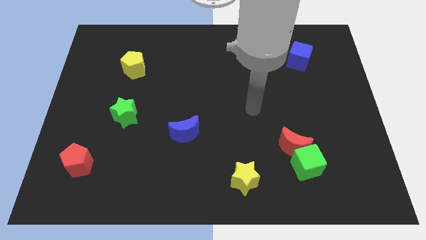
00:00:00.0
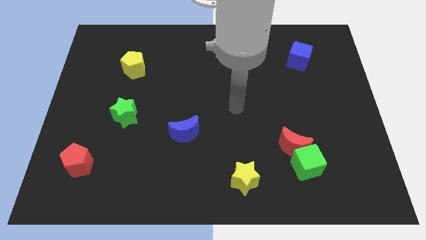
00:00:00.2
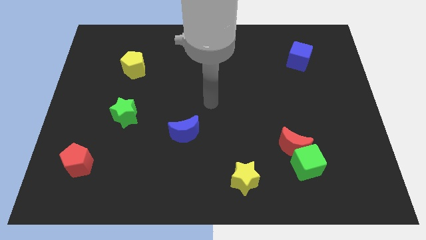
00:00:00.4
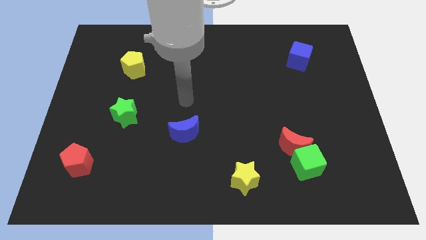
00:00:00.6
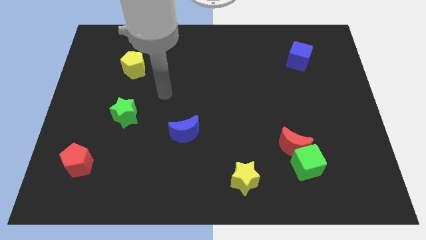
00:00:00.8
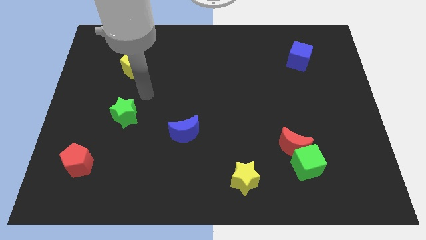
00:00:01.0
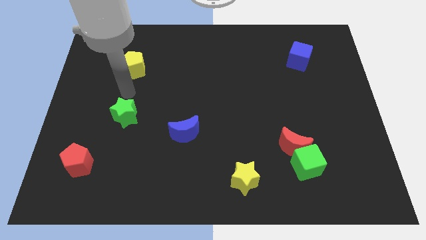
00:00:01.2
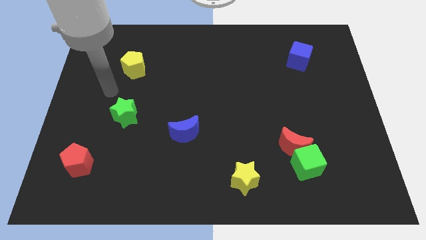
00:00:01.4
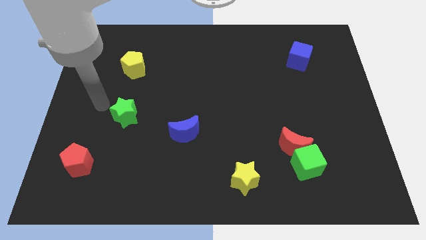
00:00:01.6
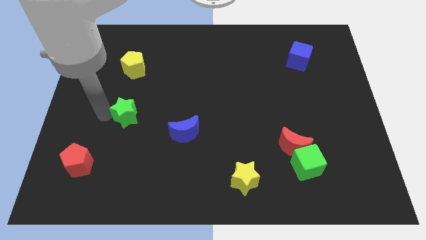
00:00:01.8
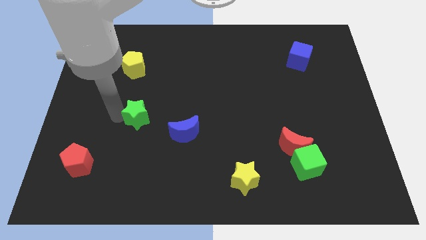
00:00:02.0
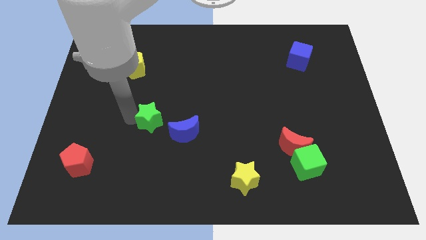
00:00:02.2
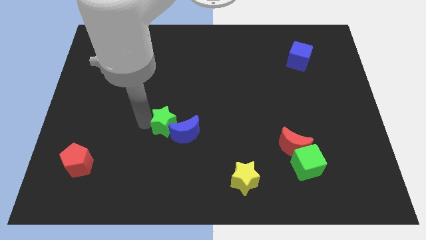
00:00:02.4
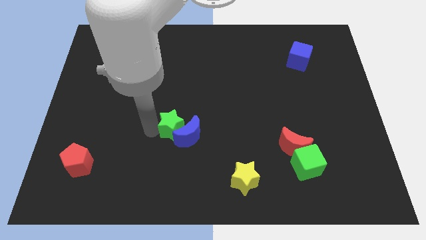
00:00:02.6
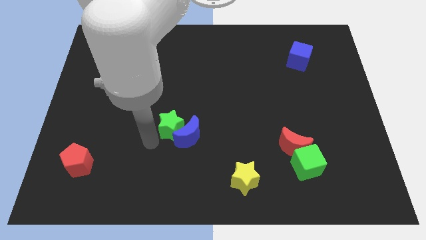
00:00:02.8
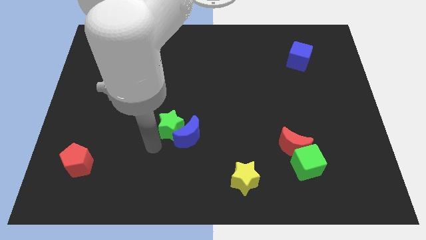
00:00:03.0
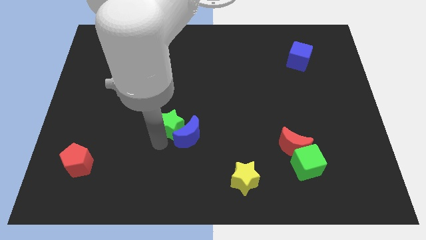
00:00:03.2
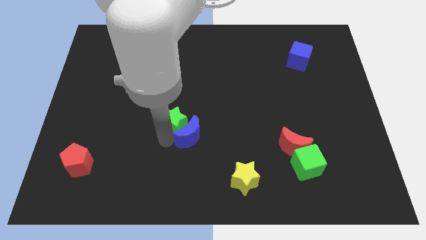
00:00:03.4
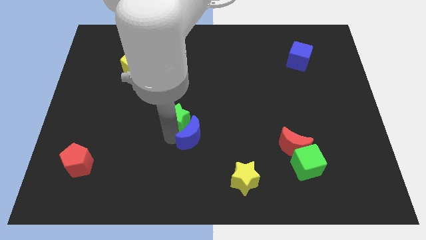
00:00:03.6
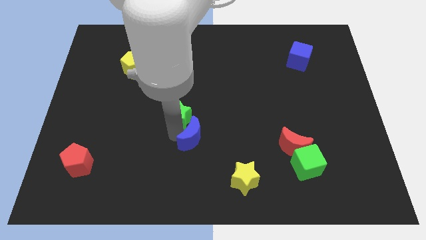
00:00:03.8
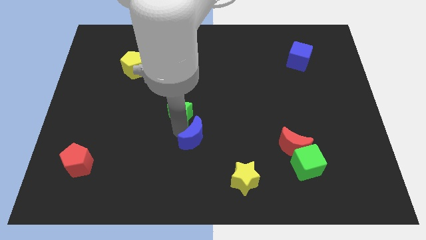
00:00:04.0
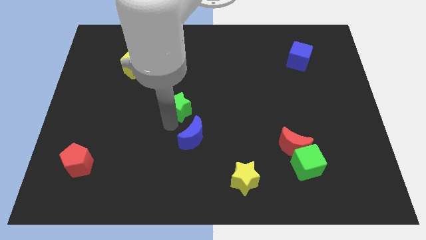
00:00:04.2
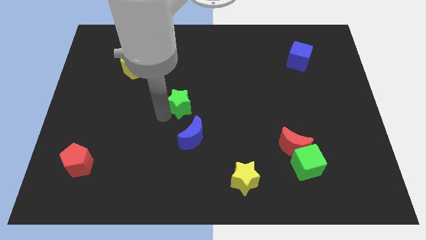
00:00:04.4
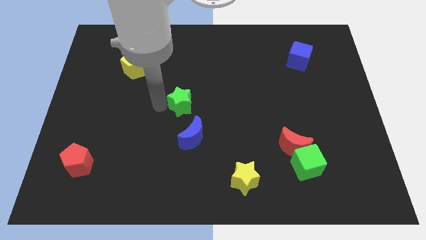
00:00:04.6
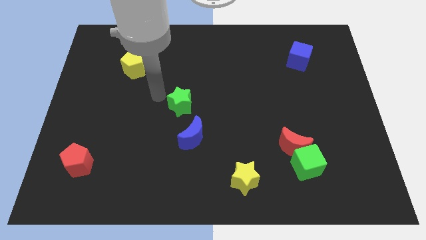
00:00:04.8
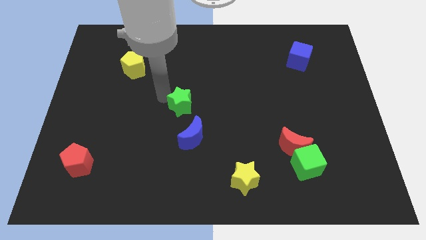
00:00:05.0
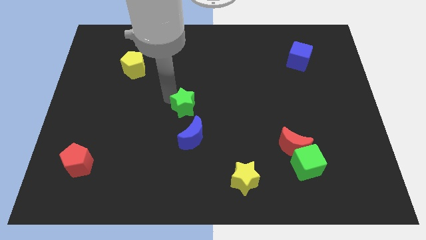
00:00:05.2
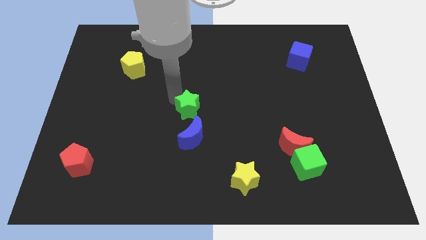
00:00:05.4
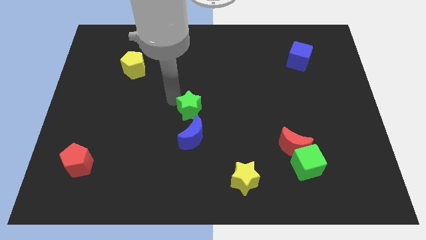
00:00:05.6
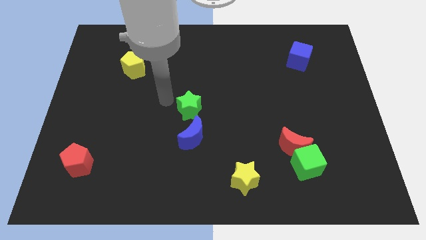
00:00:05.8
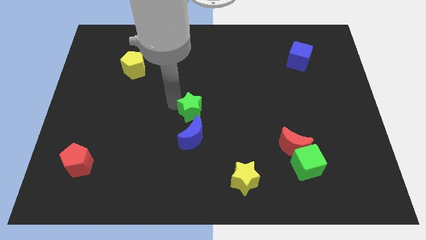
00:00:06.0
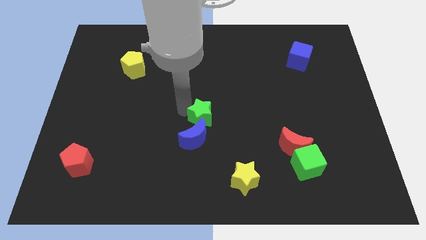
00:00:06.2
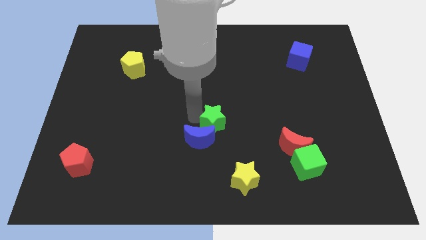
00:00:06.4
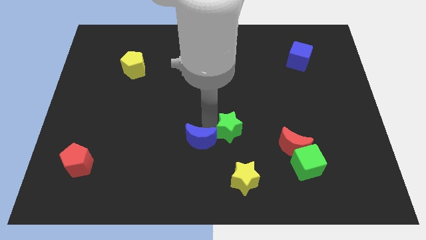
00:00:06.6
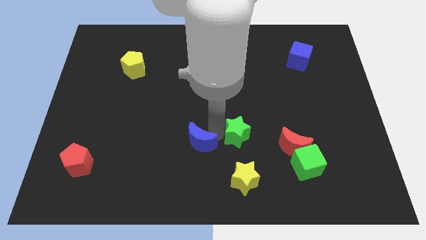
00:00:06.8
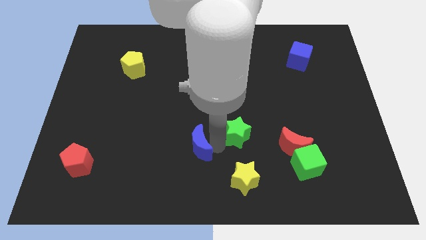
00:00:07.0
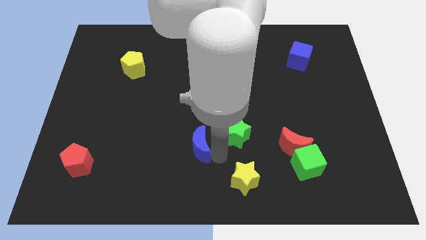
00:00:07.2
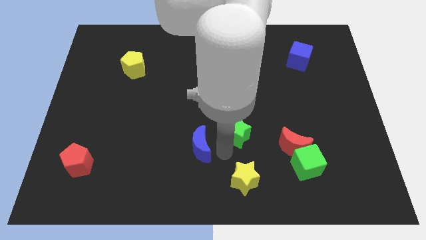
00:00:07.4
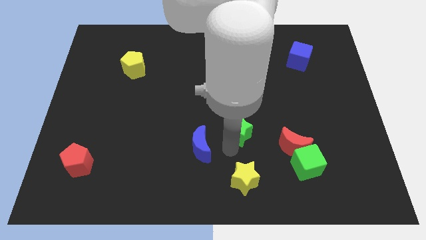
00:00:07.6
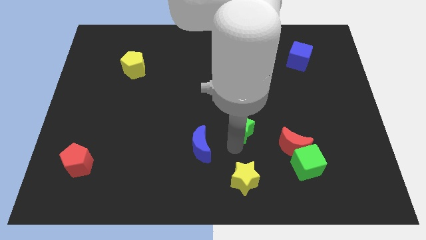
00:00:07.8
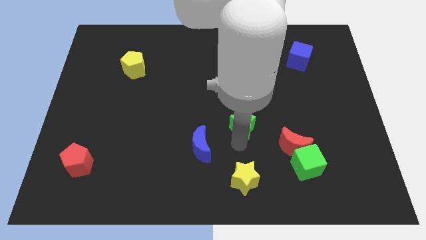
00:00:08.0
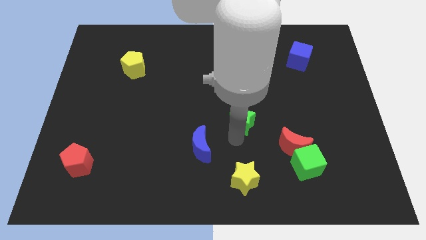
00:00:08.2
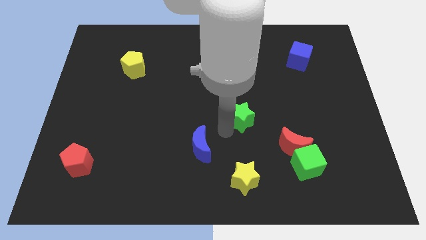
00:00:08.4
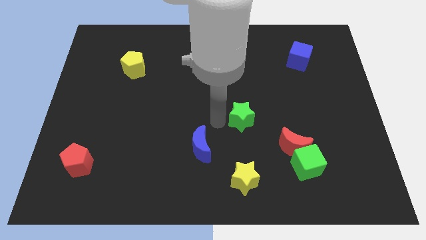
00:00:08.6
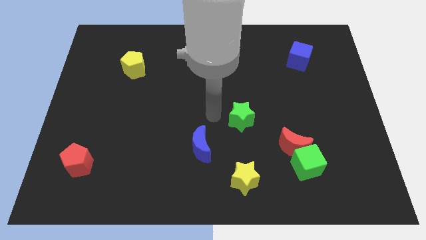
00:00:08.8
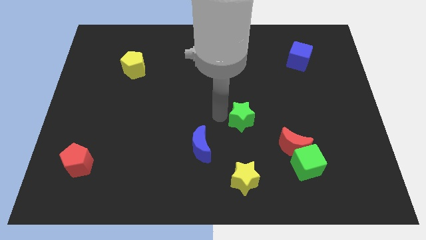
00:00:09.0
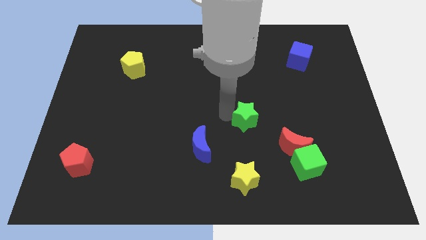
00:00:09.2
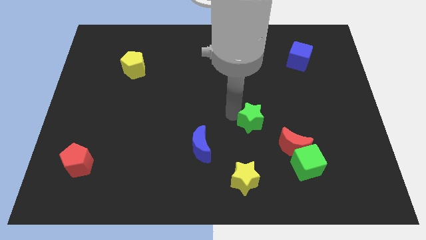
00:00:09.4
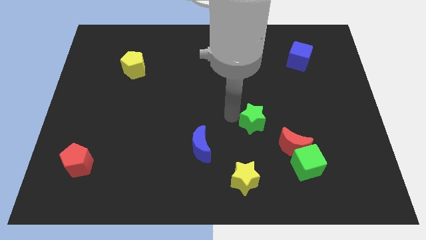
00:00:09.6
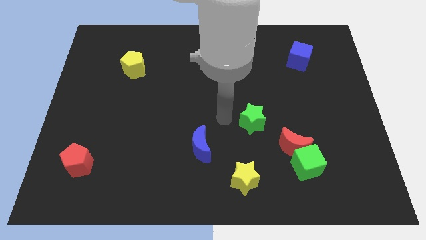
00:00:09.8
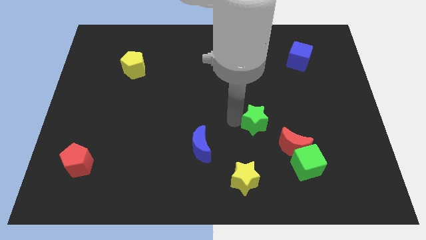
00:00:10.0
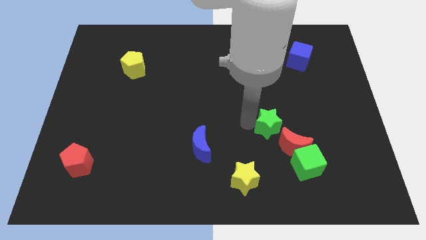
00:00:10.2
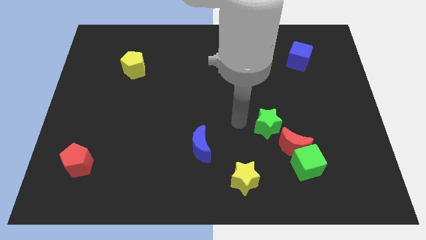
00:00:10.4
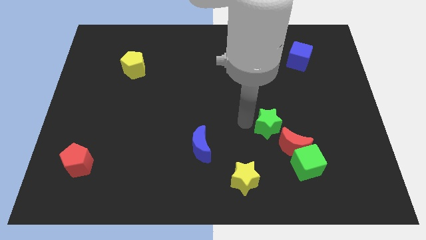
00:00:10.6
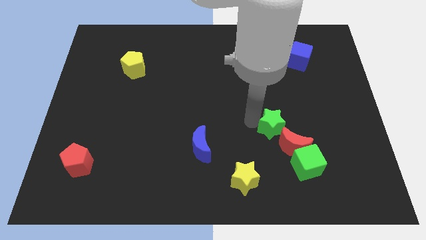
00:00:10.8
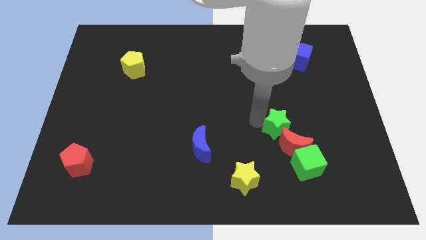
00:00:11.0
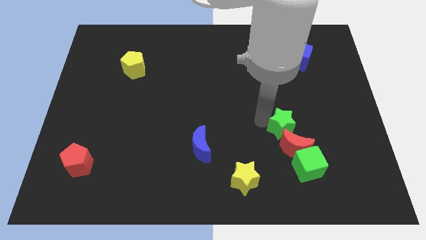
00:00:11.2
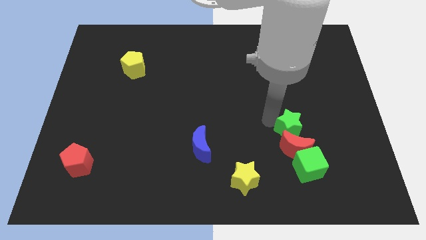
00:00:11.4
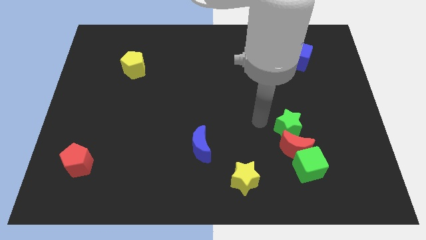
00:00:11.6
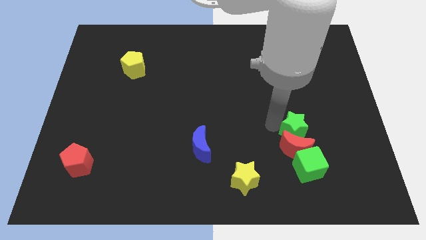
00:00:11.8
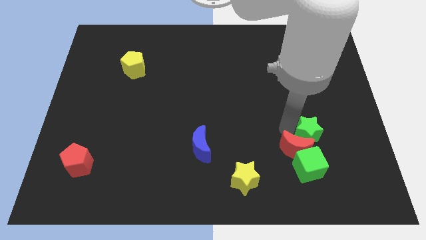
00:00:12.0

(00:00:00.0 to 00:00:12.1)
slide the green star to the right side of the red moon

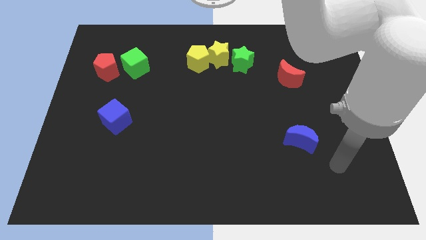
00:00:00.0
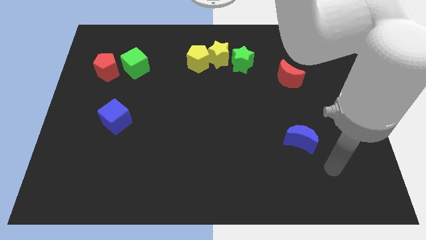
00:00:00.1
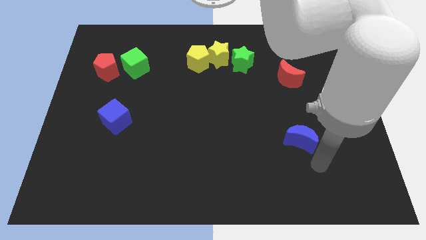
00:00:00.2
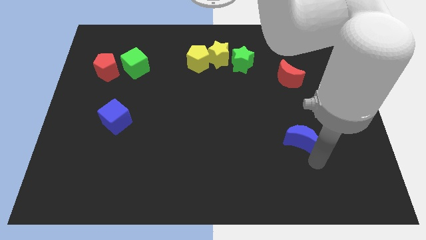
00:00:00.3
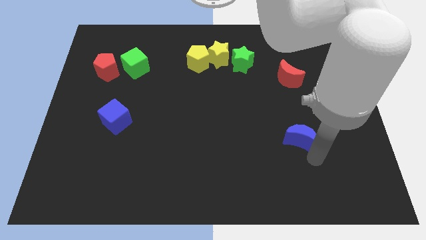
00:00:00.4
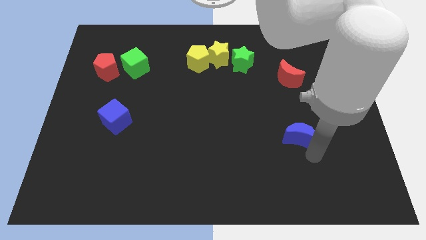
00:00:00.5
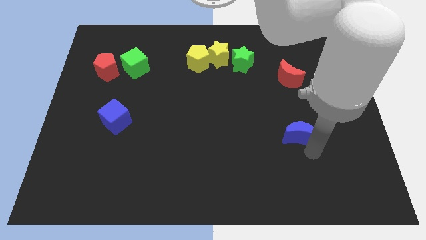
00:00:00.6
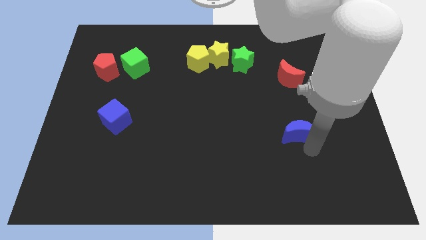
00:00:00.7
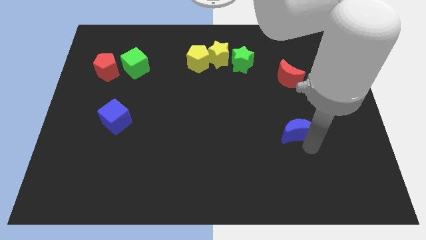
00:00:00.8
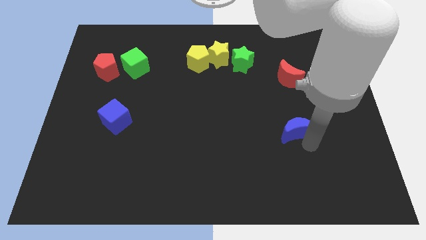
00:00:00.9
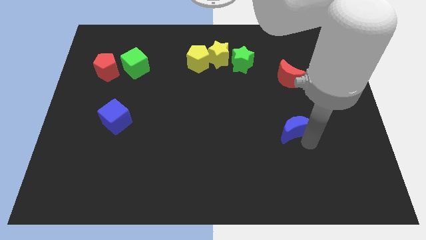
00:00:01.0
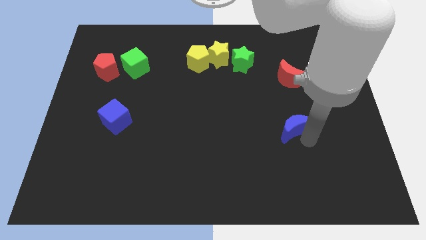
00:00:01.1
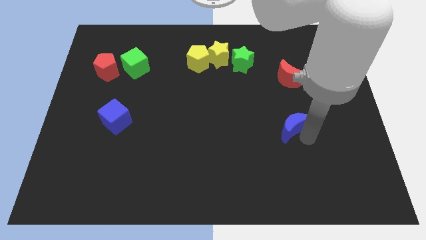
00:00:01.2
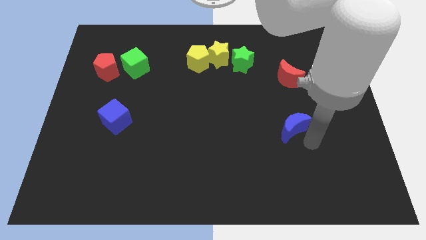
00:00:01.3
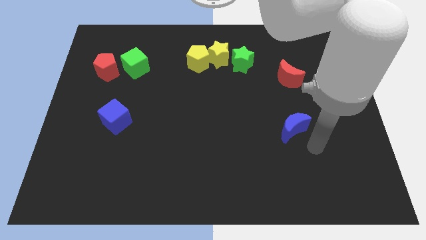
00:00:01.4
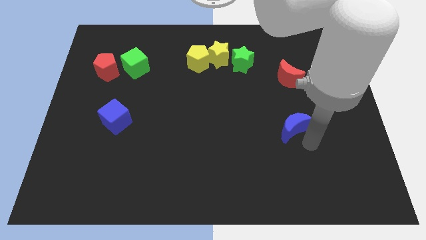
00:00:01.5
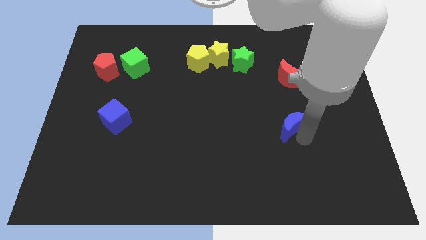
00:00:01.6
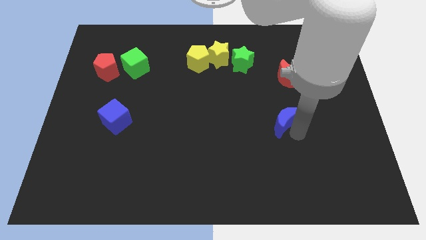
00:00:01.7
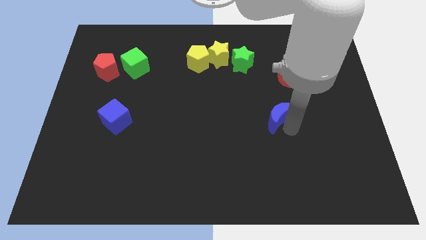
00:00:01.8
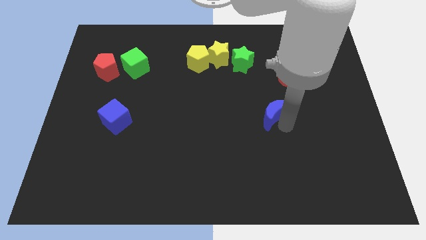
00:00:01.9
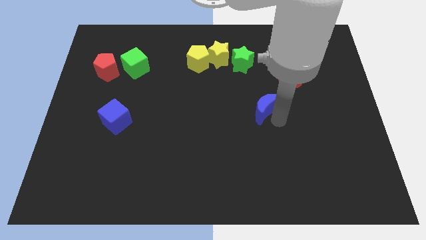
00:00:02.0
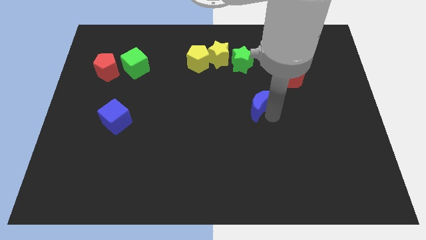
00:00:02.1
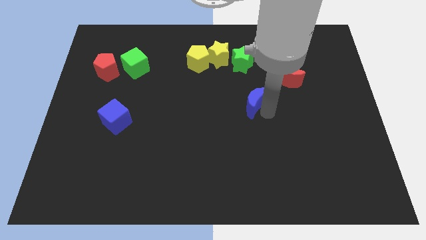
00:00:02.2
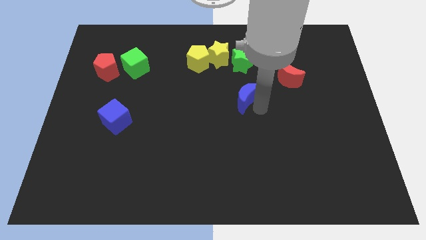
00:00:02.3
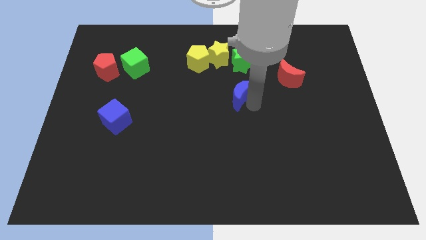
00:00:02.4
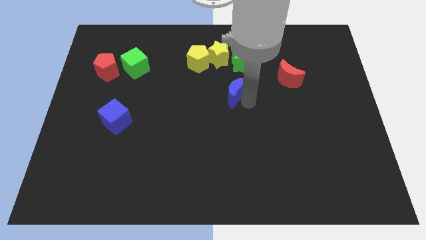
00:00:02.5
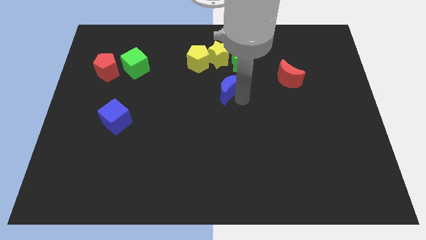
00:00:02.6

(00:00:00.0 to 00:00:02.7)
push the blue moon diagonally down and to the right of the yellow pentagon
